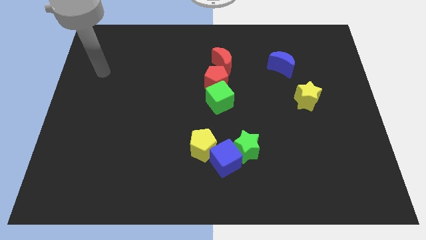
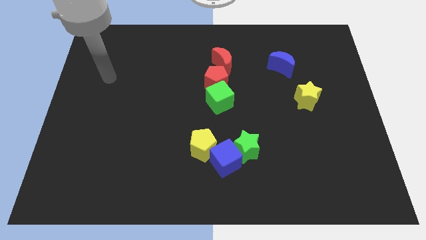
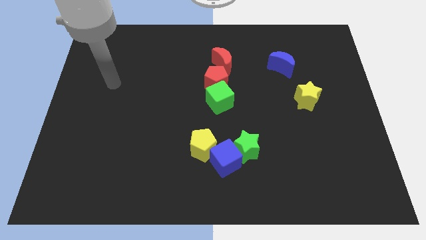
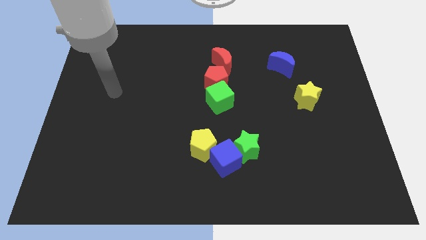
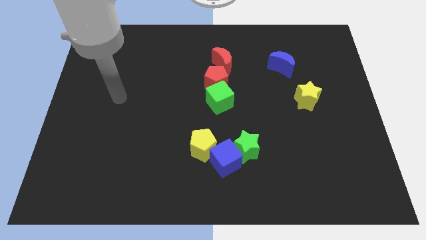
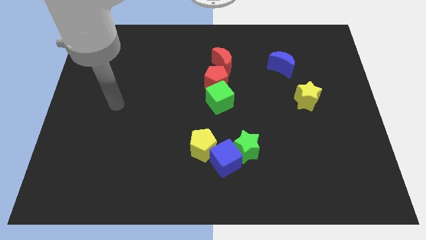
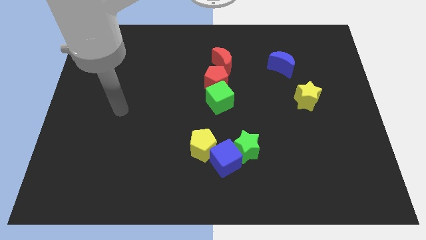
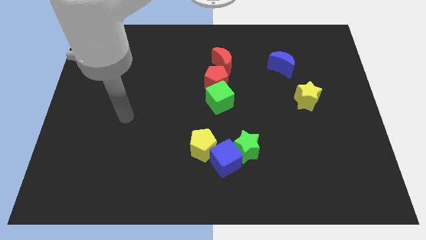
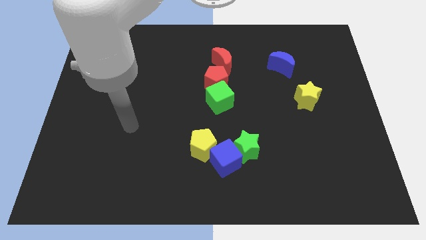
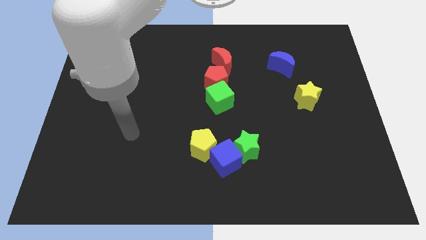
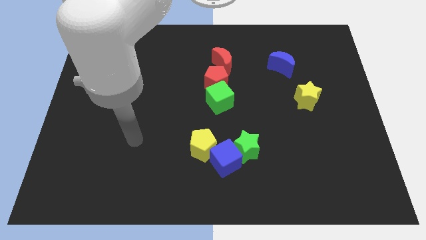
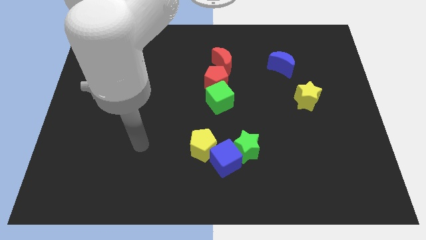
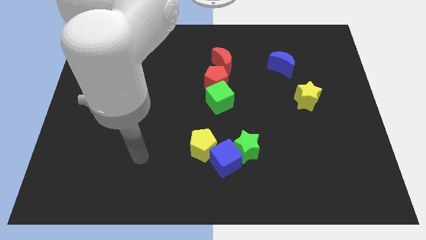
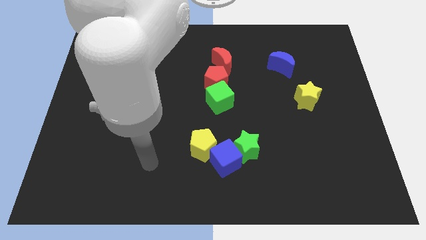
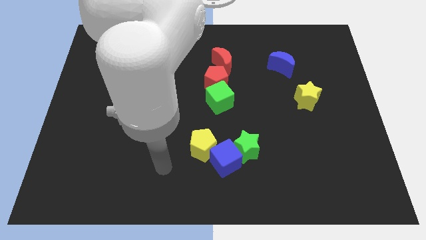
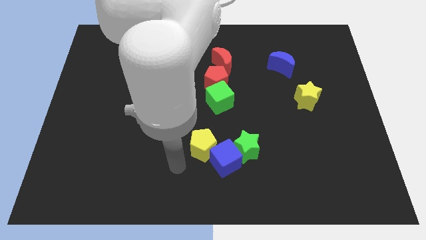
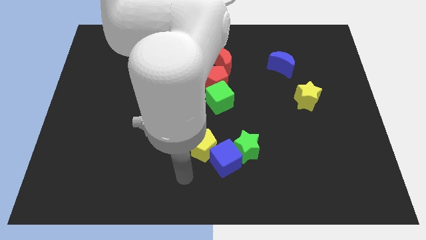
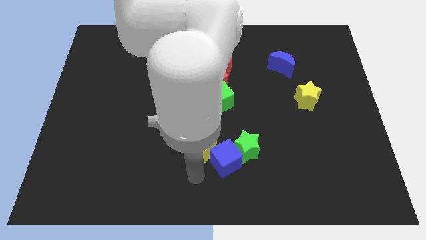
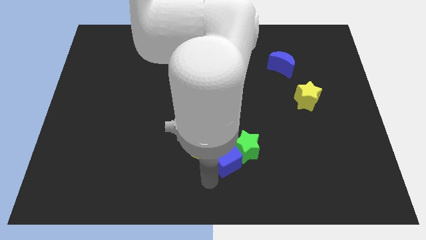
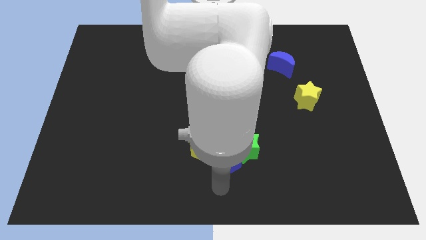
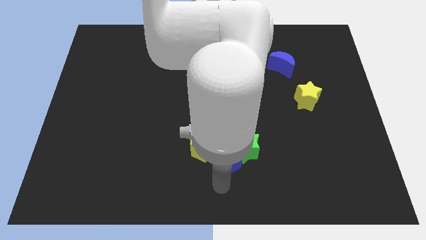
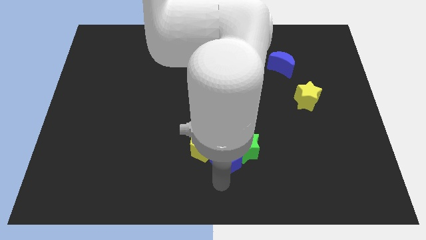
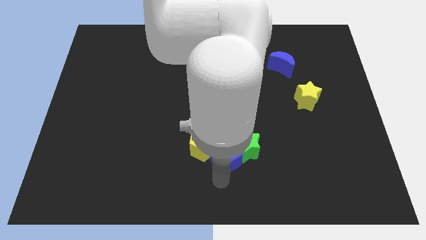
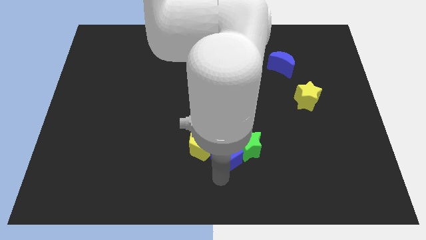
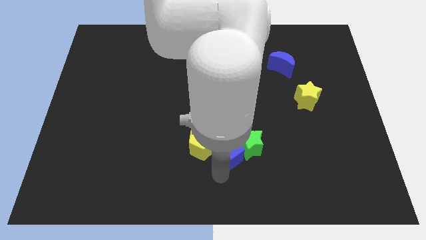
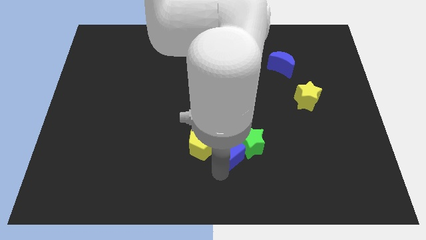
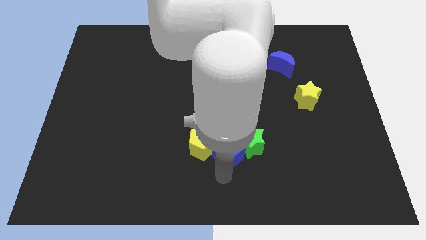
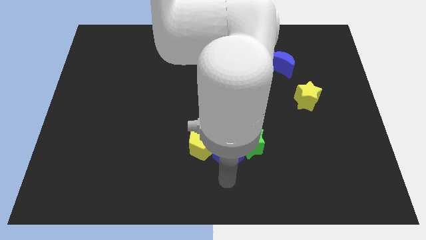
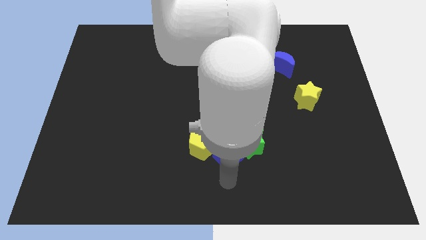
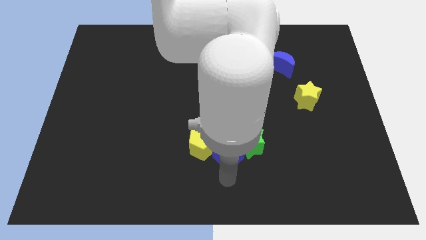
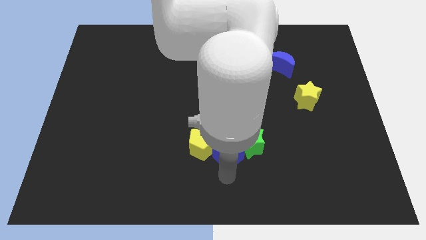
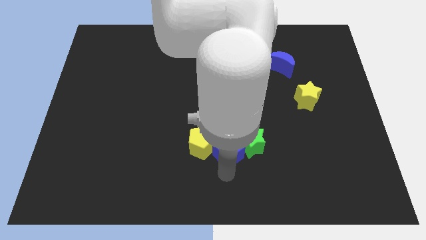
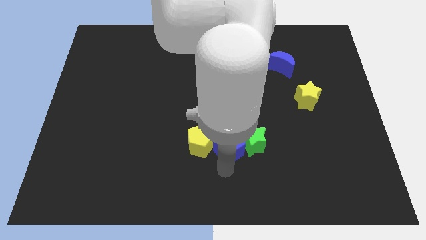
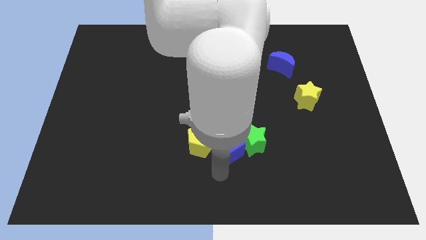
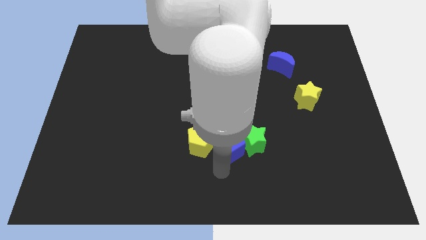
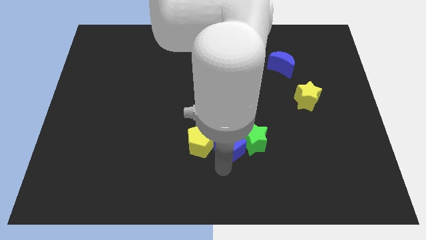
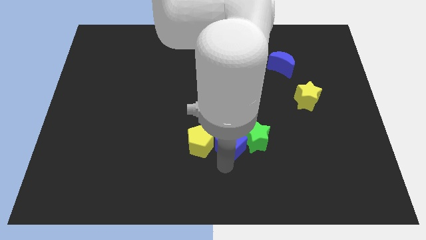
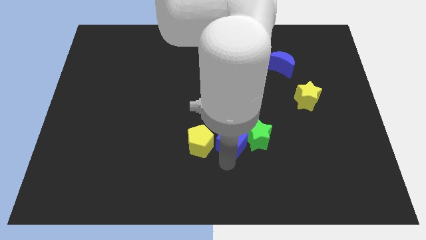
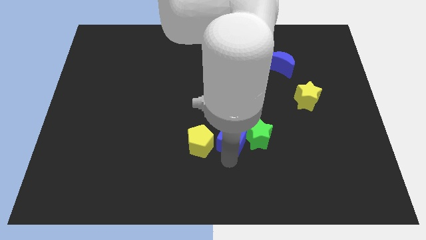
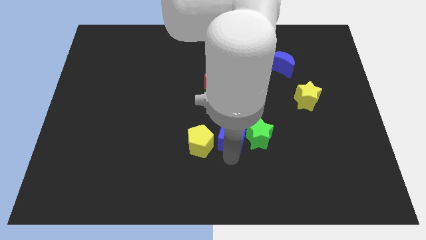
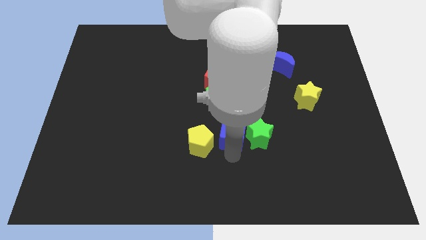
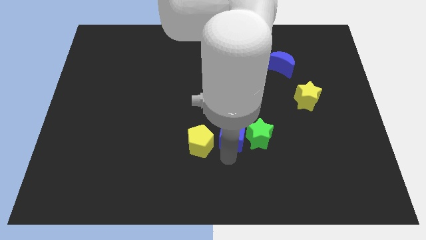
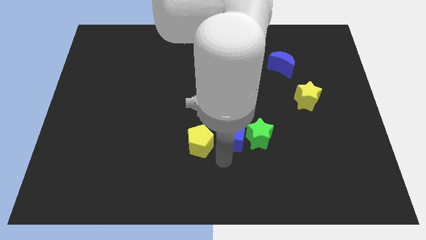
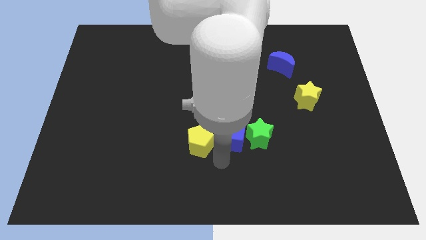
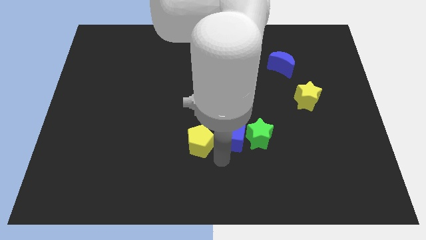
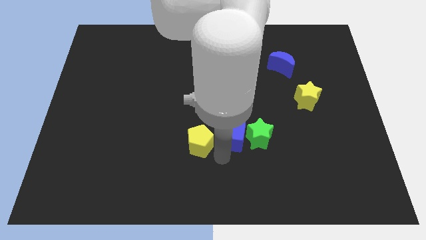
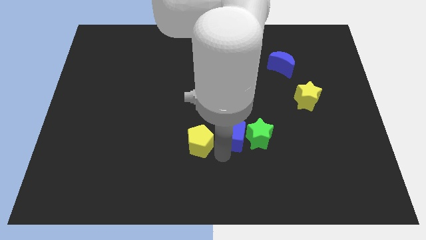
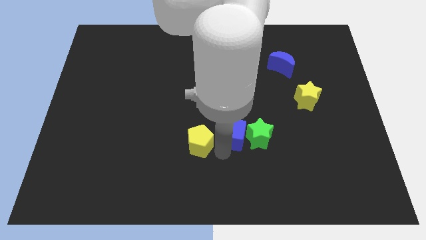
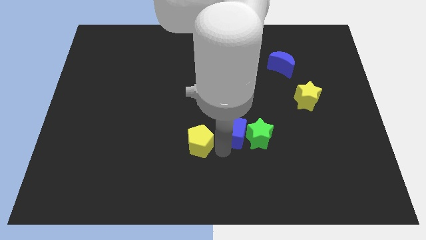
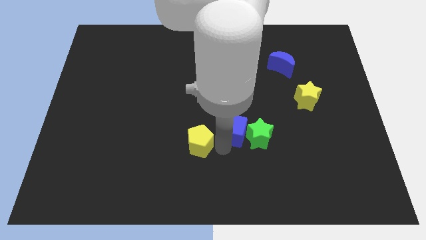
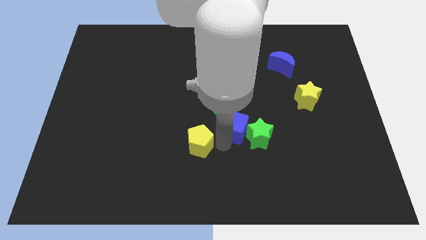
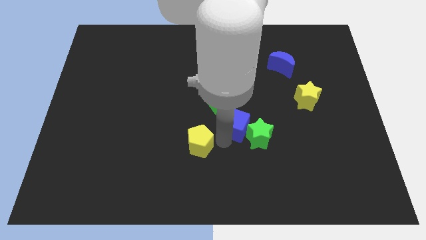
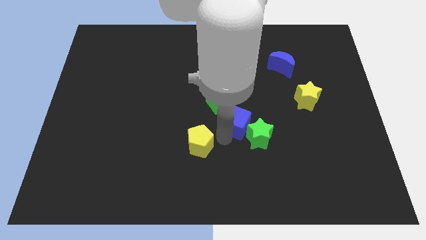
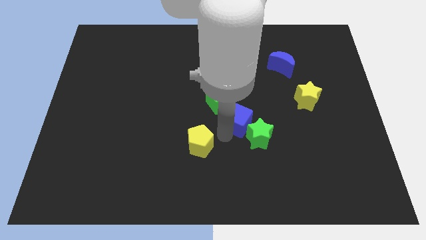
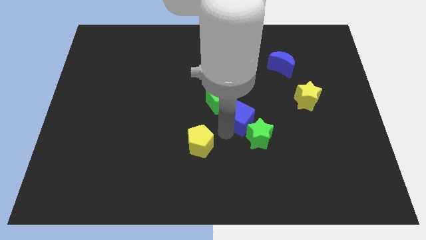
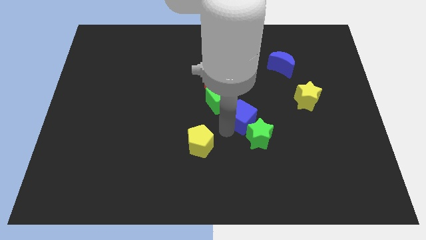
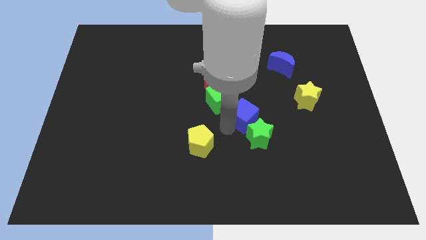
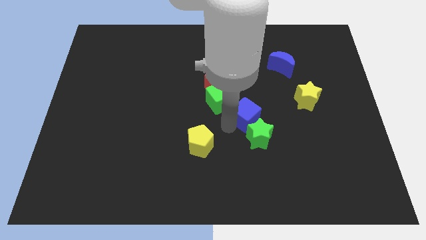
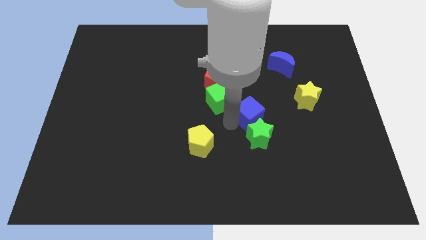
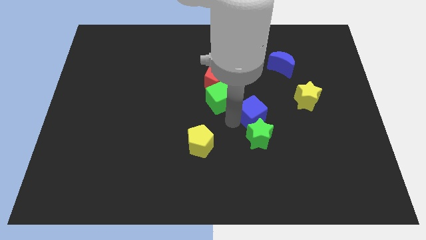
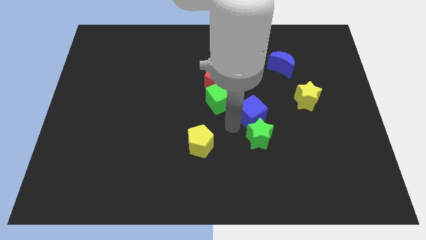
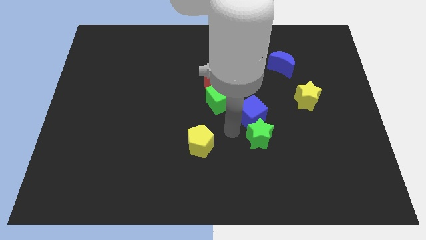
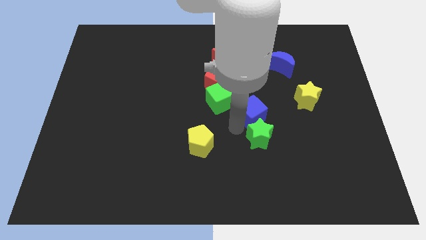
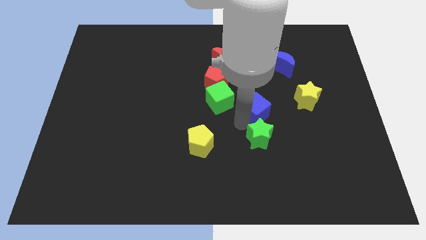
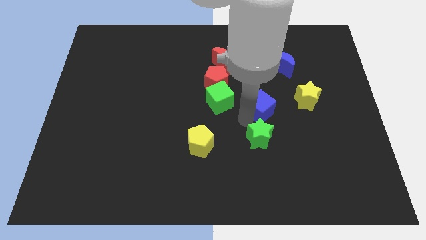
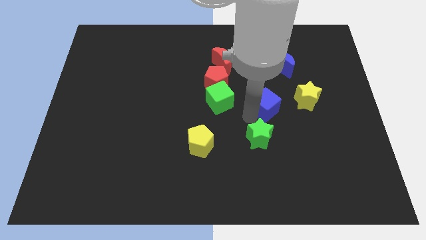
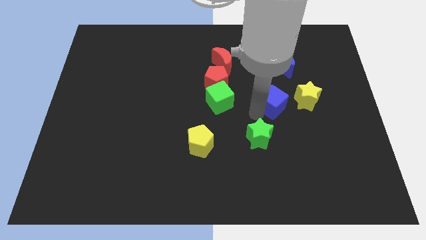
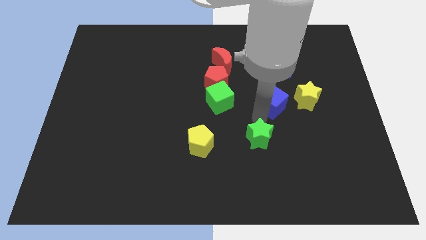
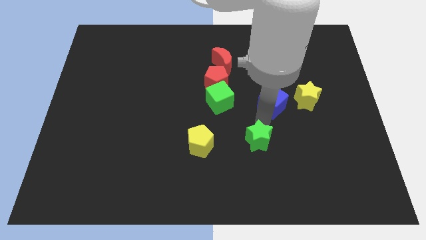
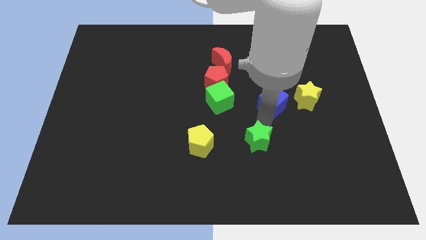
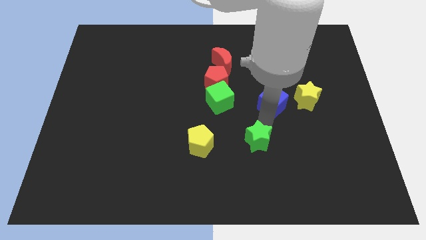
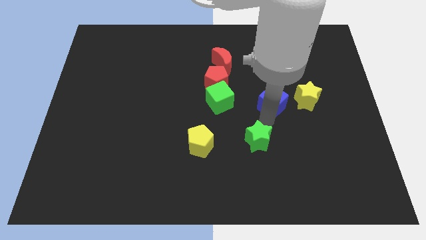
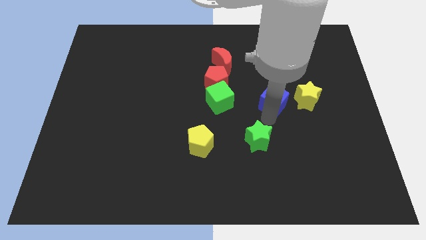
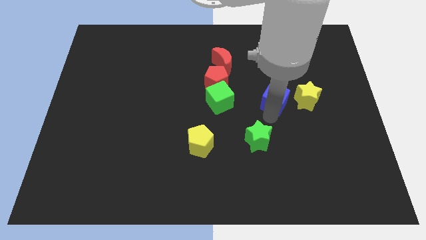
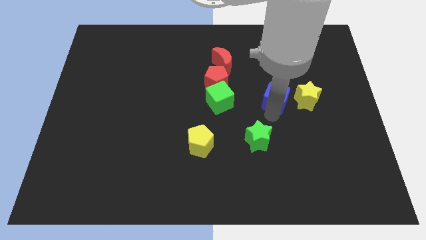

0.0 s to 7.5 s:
slide the blue cube diagonally up and to the right

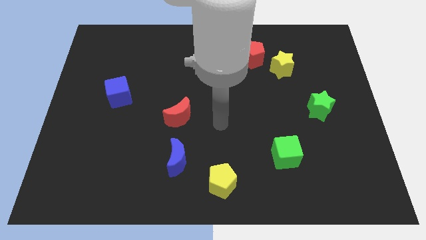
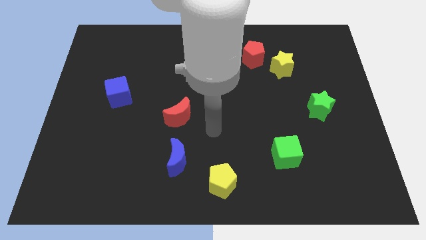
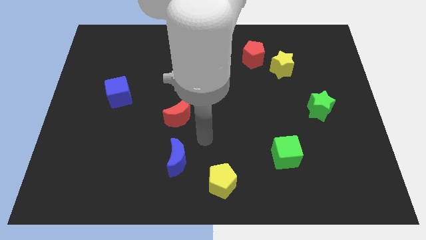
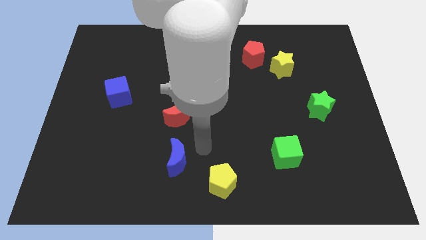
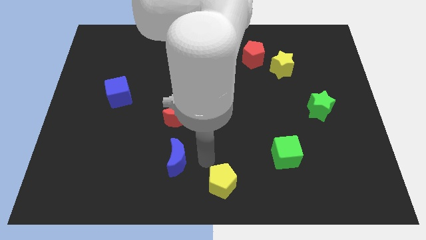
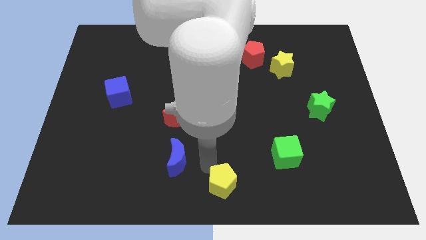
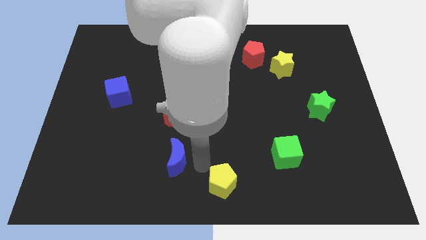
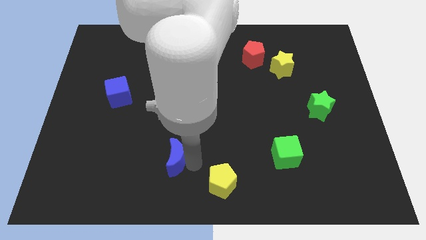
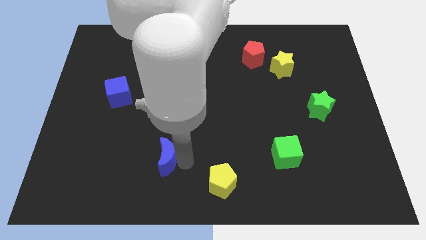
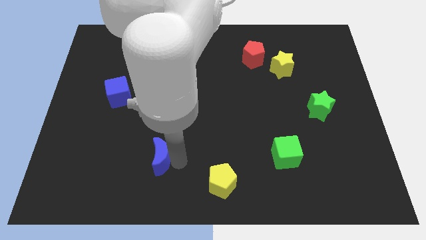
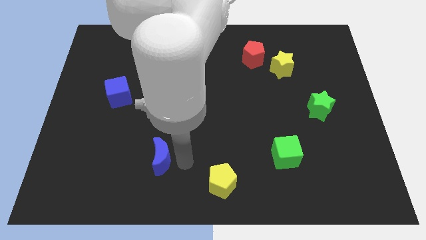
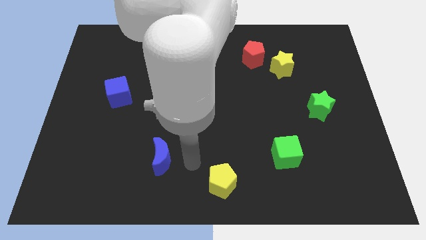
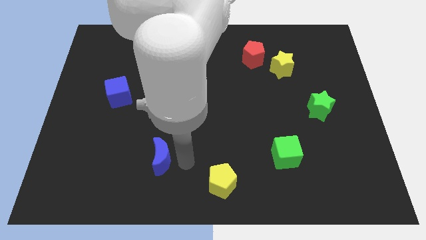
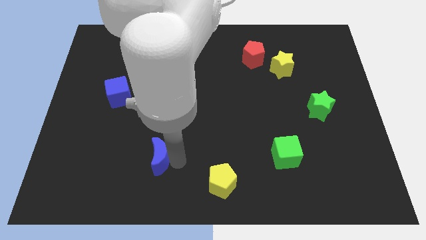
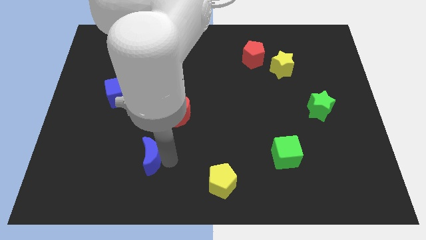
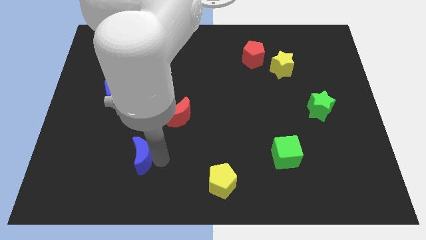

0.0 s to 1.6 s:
push the blue moon left a little bit
